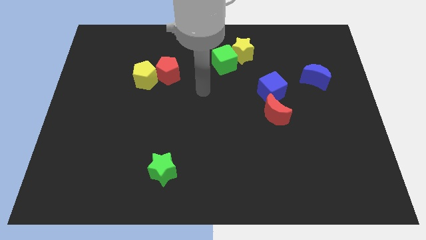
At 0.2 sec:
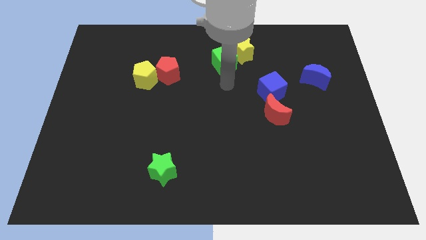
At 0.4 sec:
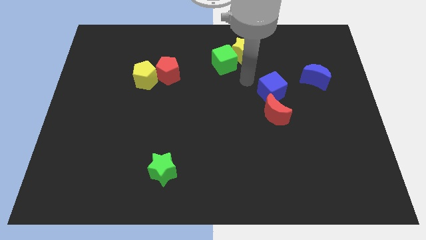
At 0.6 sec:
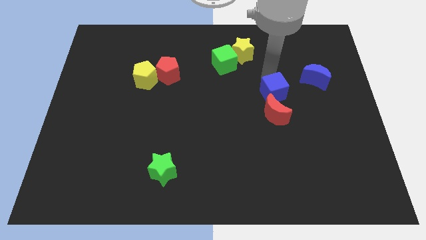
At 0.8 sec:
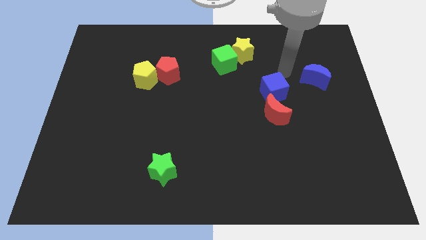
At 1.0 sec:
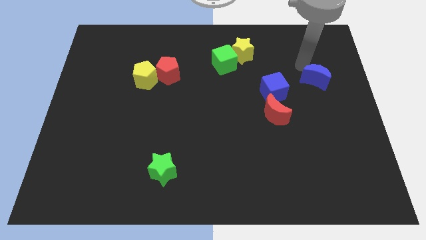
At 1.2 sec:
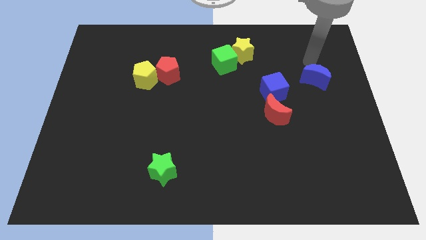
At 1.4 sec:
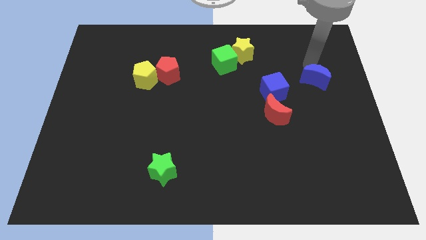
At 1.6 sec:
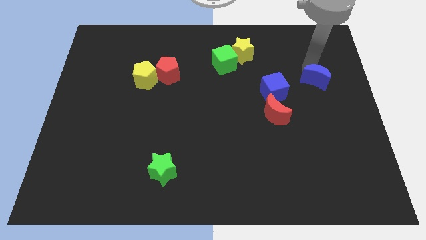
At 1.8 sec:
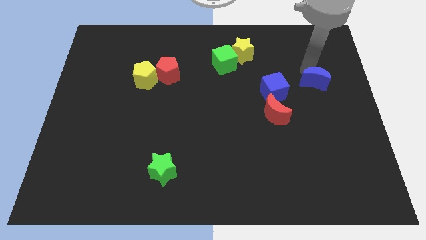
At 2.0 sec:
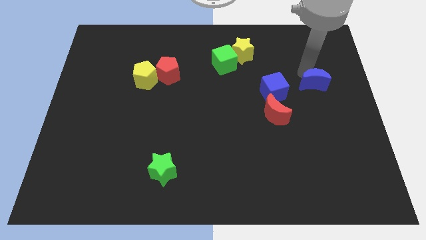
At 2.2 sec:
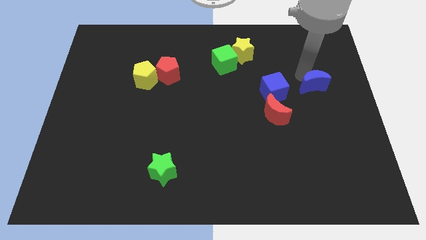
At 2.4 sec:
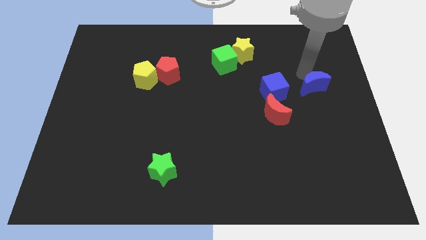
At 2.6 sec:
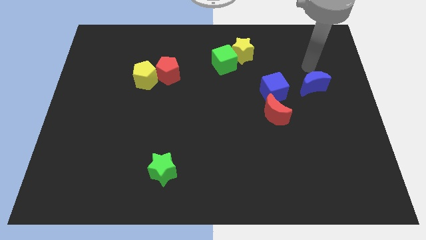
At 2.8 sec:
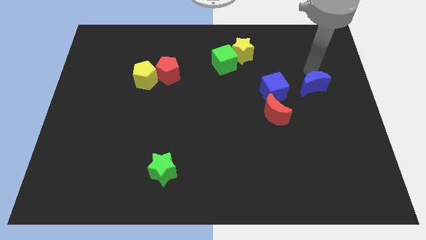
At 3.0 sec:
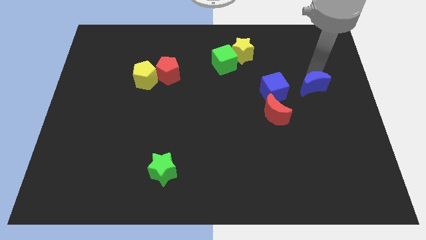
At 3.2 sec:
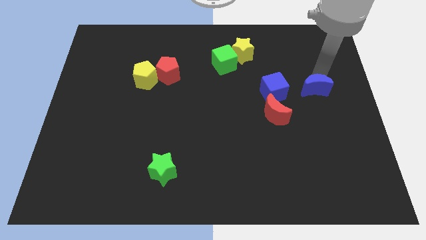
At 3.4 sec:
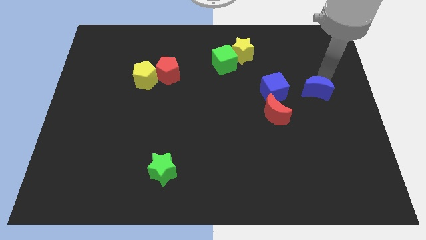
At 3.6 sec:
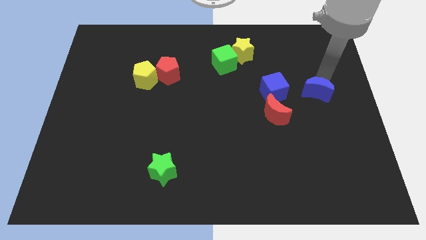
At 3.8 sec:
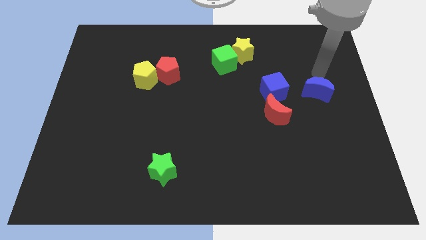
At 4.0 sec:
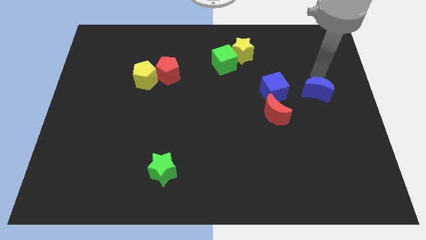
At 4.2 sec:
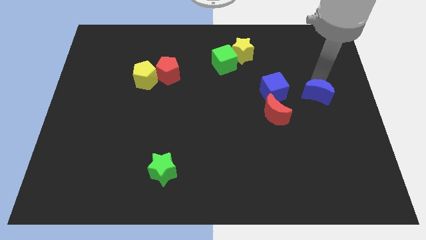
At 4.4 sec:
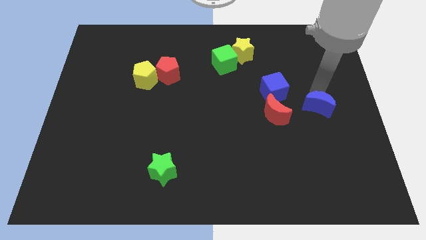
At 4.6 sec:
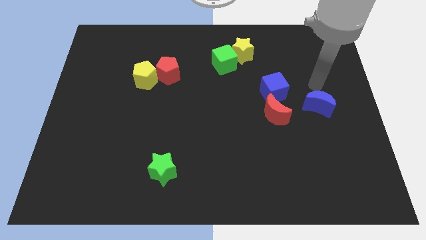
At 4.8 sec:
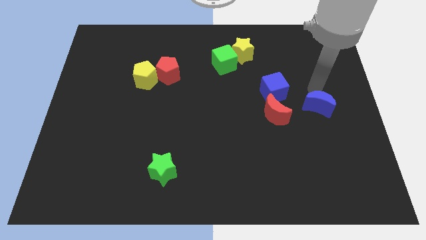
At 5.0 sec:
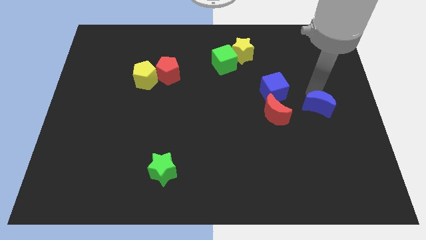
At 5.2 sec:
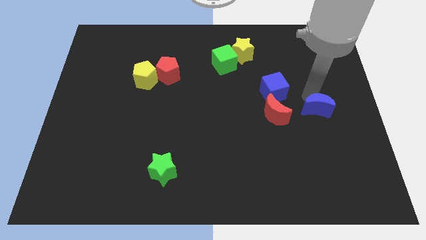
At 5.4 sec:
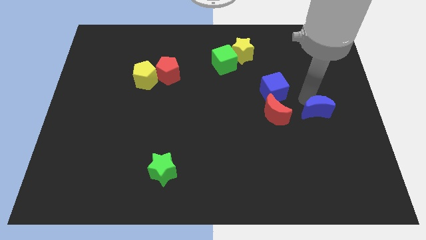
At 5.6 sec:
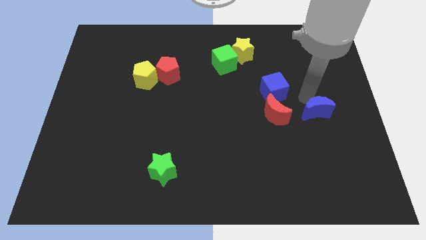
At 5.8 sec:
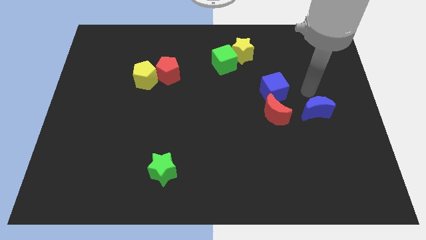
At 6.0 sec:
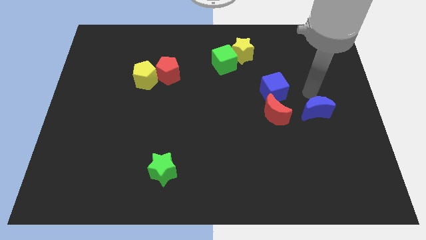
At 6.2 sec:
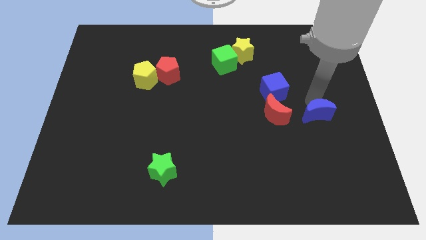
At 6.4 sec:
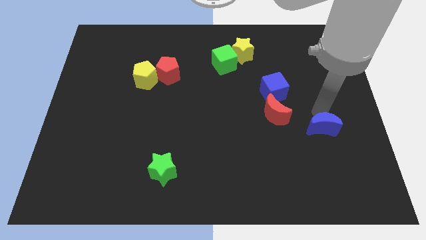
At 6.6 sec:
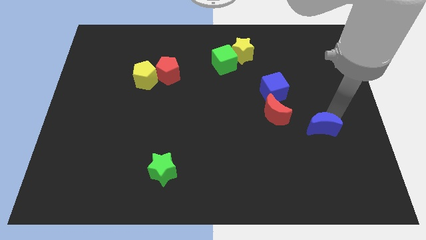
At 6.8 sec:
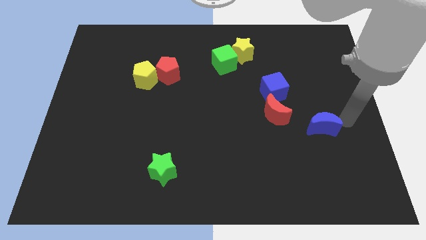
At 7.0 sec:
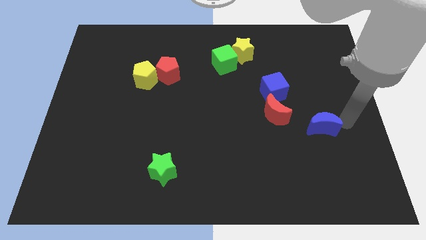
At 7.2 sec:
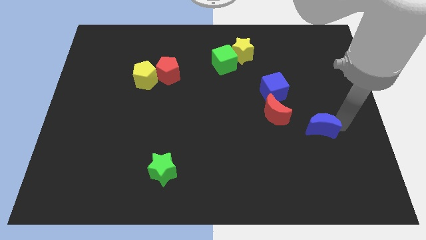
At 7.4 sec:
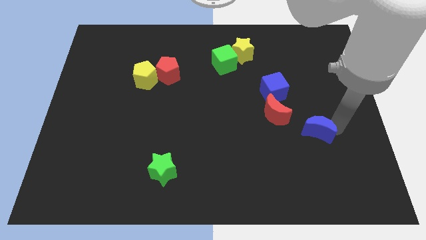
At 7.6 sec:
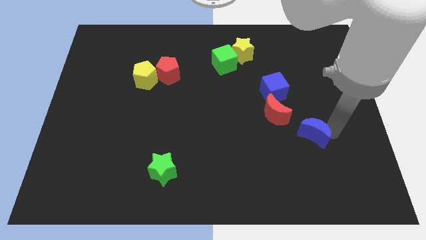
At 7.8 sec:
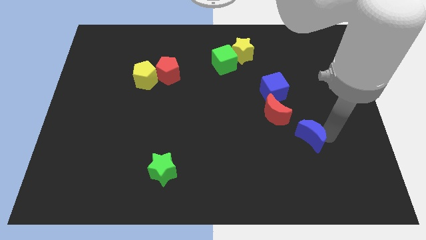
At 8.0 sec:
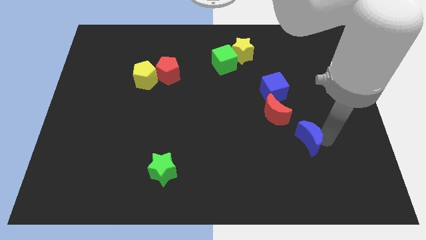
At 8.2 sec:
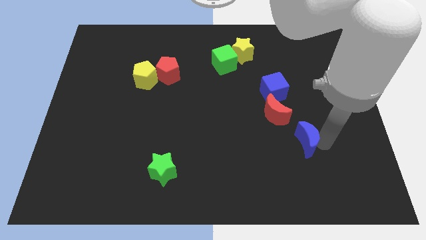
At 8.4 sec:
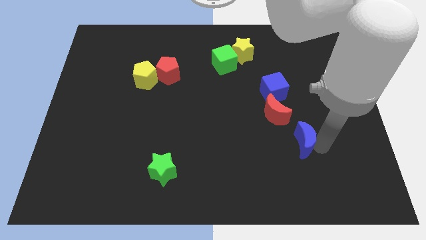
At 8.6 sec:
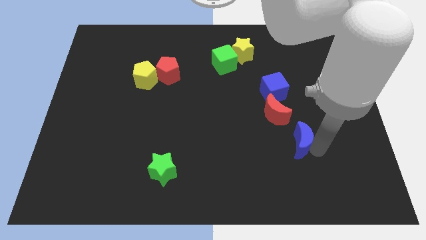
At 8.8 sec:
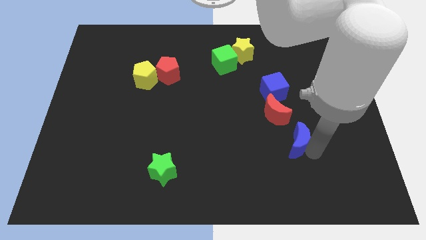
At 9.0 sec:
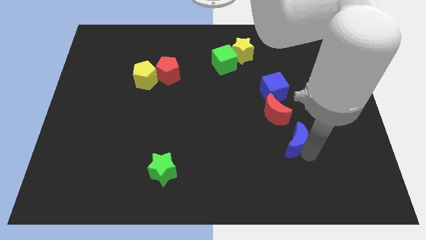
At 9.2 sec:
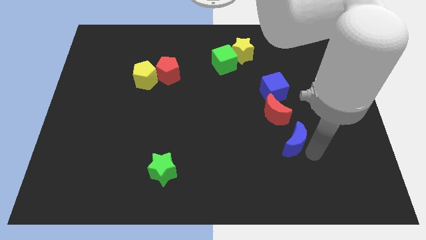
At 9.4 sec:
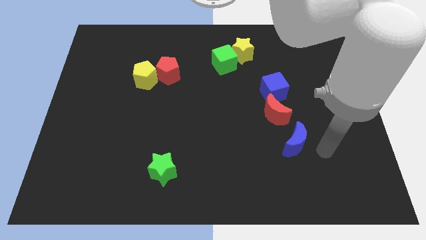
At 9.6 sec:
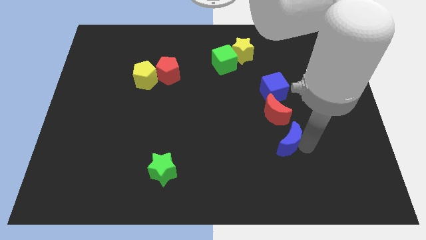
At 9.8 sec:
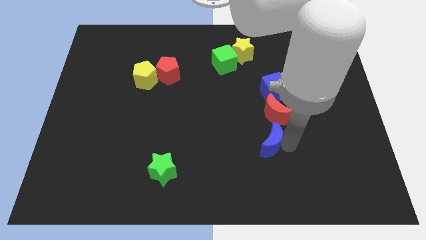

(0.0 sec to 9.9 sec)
push the blue moon to the bottom left side of the red moon

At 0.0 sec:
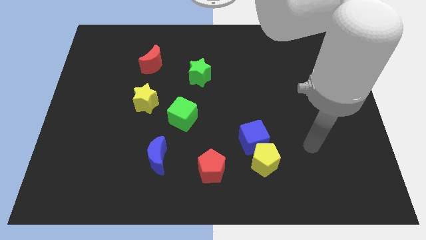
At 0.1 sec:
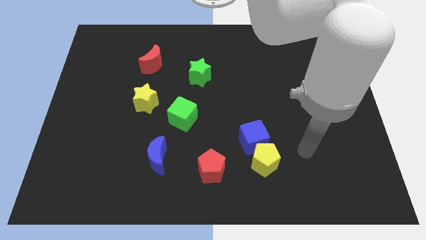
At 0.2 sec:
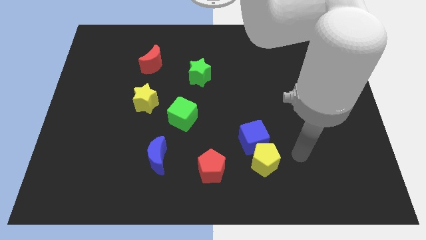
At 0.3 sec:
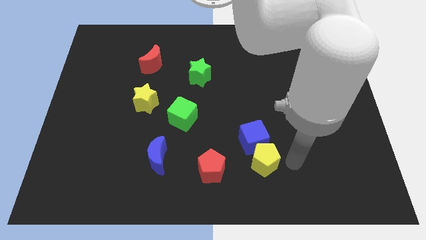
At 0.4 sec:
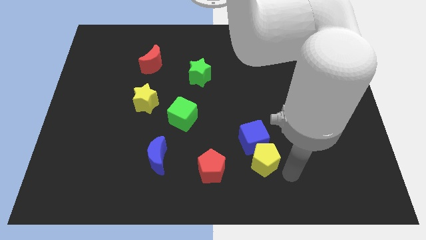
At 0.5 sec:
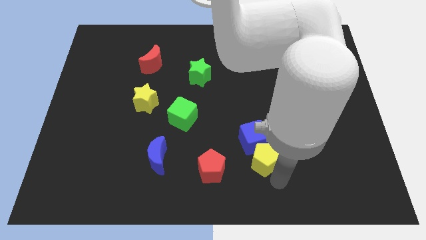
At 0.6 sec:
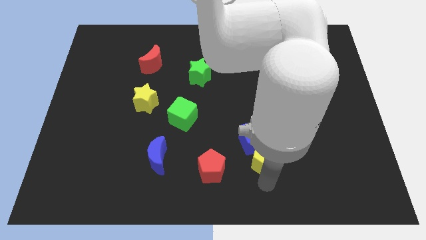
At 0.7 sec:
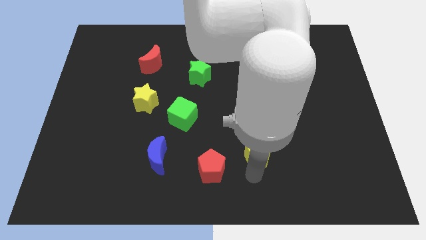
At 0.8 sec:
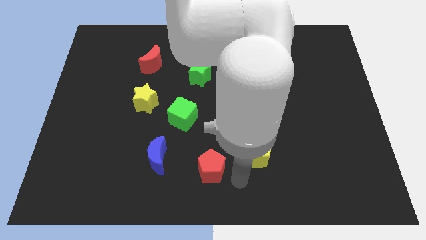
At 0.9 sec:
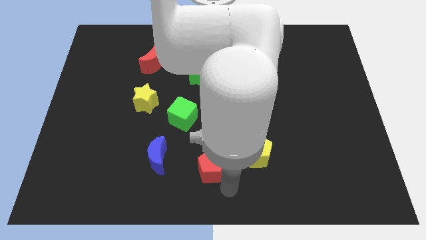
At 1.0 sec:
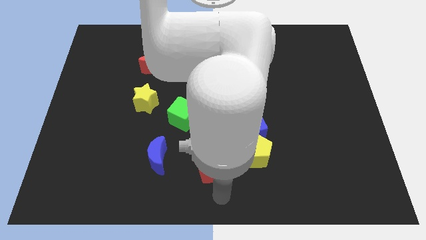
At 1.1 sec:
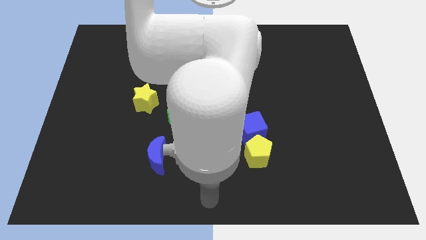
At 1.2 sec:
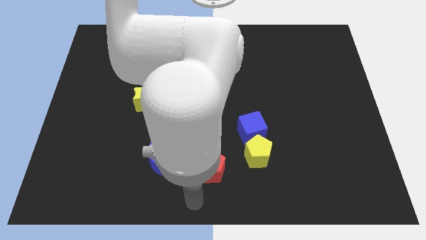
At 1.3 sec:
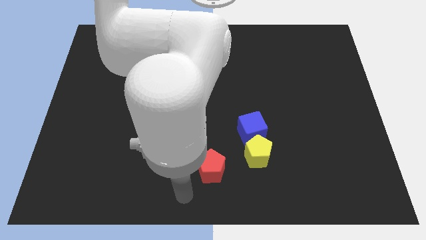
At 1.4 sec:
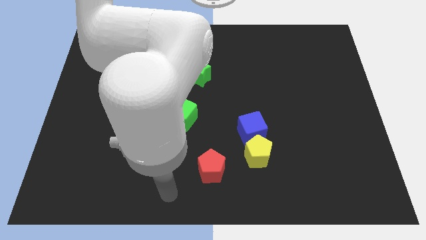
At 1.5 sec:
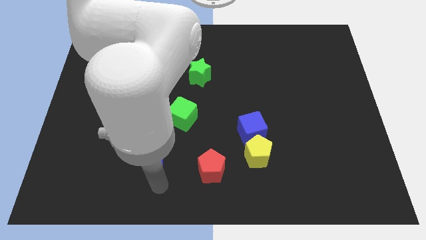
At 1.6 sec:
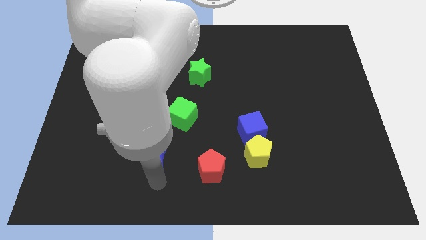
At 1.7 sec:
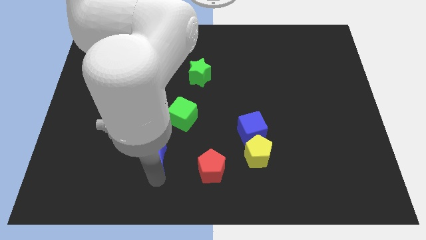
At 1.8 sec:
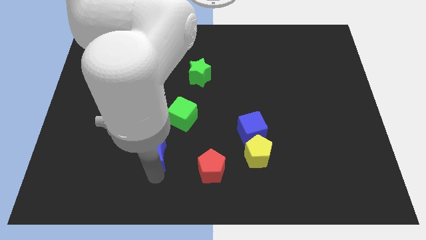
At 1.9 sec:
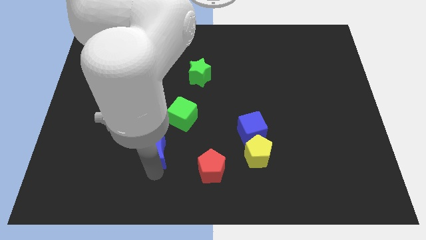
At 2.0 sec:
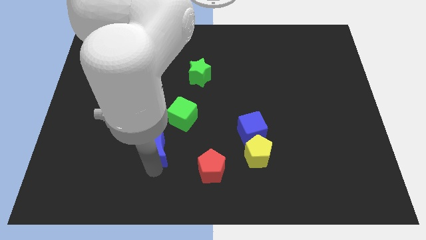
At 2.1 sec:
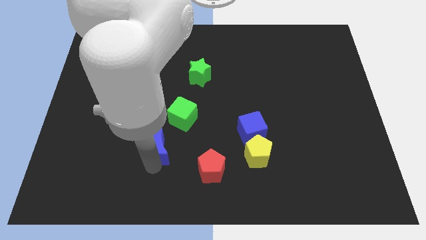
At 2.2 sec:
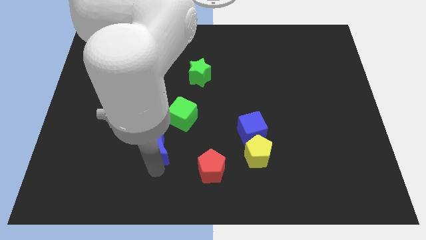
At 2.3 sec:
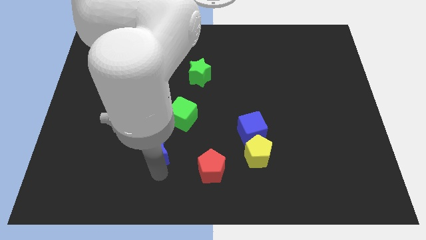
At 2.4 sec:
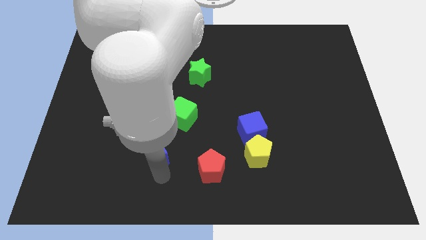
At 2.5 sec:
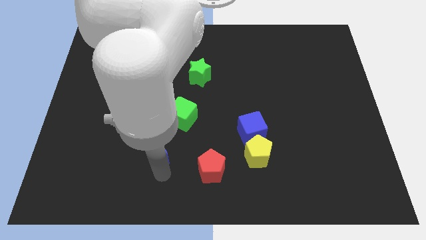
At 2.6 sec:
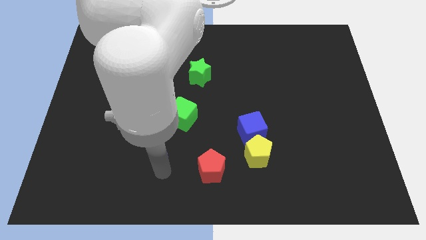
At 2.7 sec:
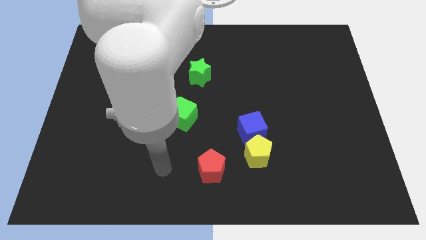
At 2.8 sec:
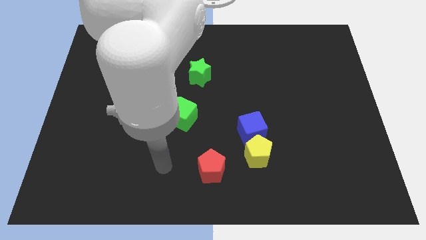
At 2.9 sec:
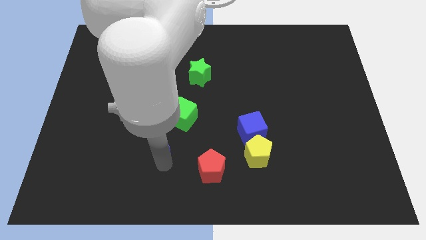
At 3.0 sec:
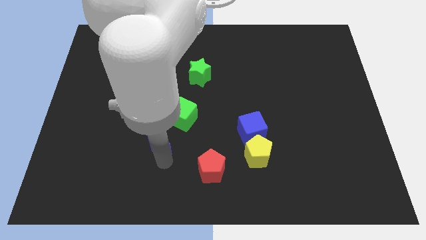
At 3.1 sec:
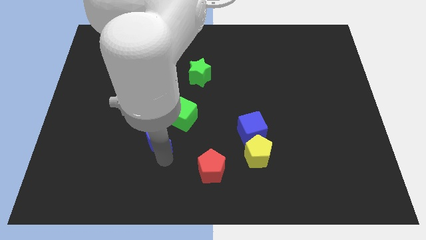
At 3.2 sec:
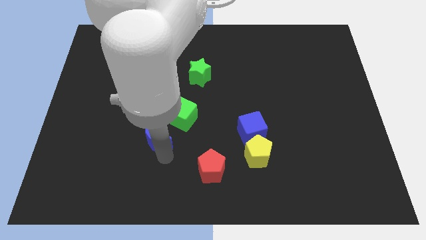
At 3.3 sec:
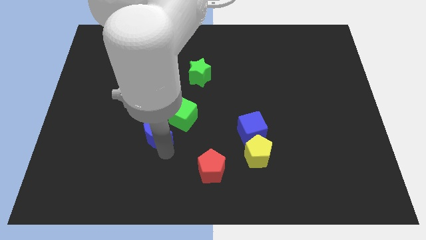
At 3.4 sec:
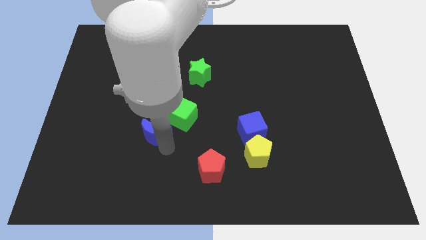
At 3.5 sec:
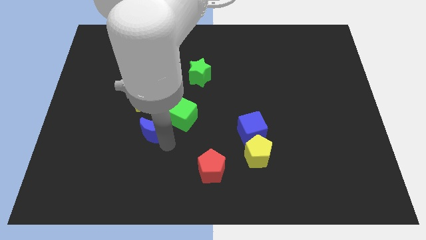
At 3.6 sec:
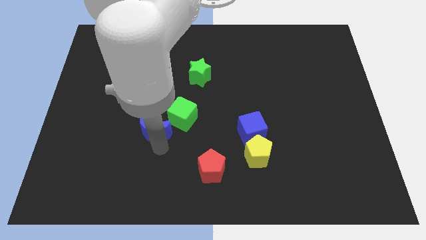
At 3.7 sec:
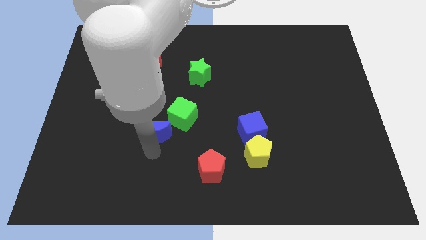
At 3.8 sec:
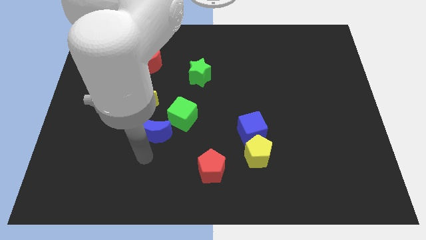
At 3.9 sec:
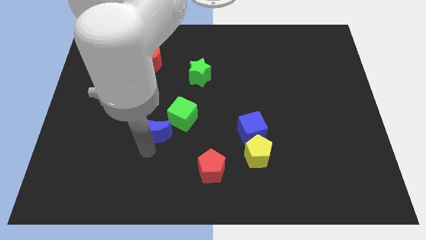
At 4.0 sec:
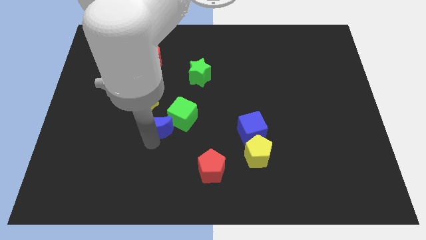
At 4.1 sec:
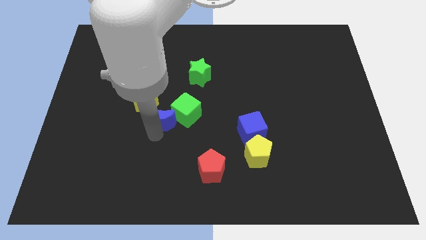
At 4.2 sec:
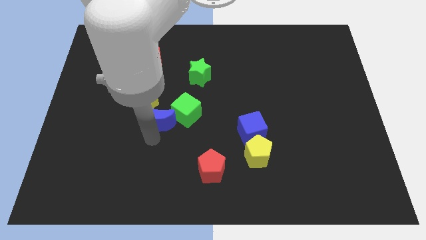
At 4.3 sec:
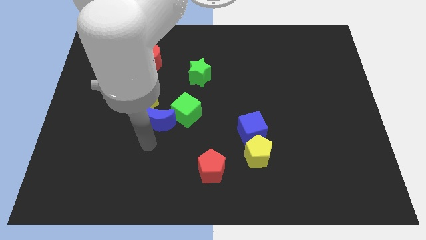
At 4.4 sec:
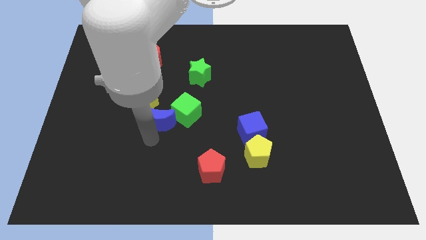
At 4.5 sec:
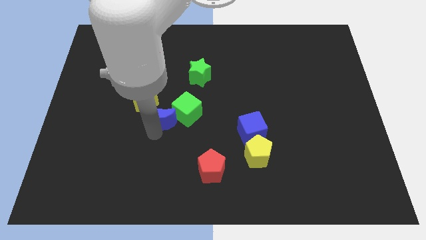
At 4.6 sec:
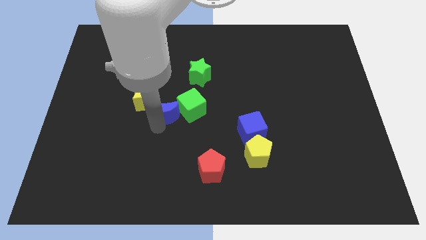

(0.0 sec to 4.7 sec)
slide the blue moon right of the yellow star
